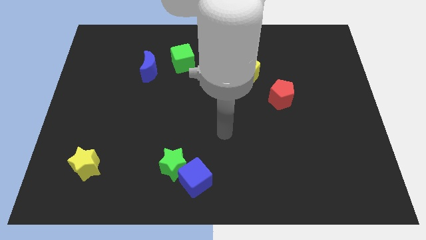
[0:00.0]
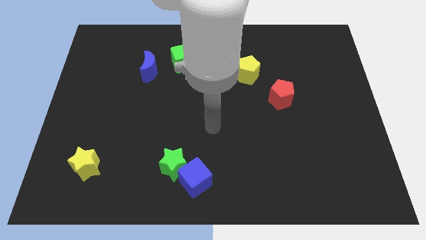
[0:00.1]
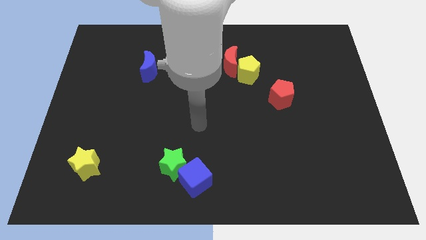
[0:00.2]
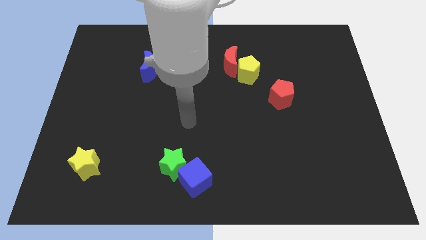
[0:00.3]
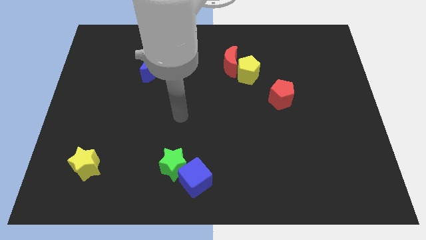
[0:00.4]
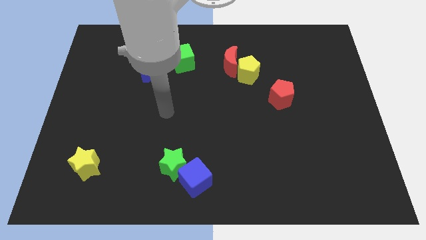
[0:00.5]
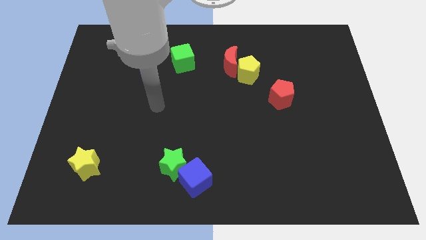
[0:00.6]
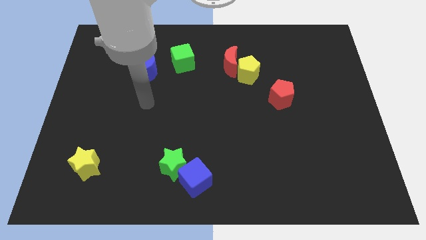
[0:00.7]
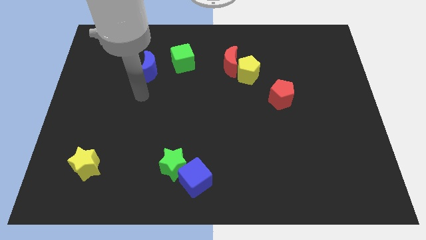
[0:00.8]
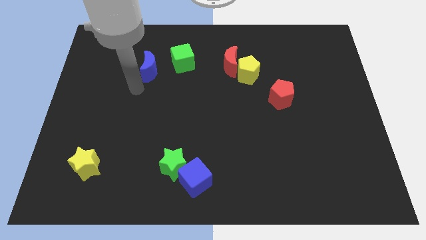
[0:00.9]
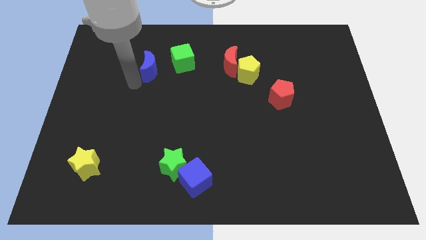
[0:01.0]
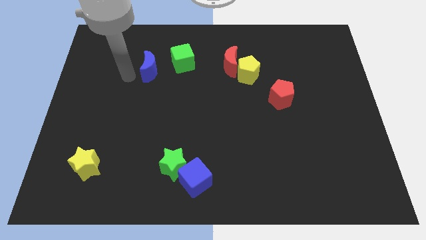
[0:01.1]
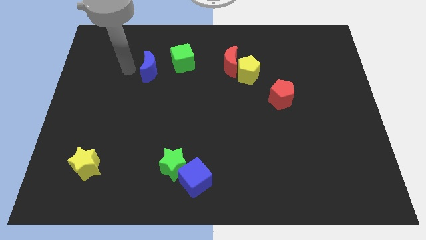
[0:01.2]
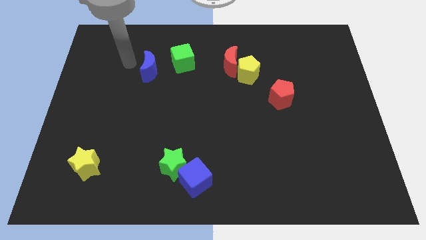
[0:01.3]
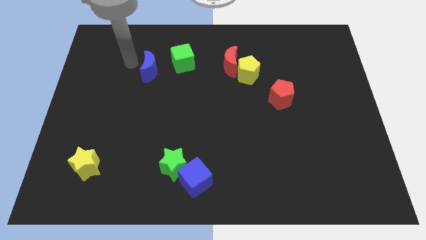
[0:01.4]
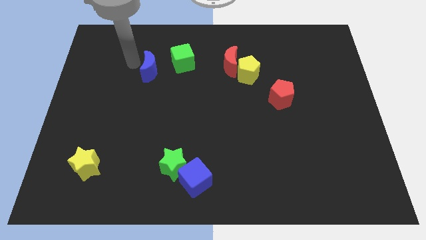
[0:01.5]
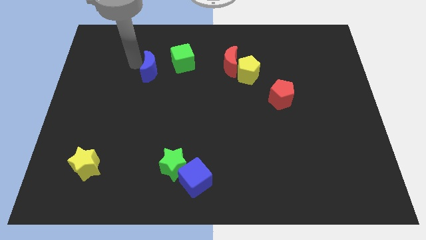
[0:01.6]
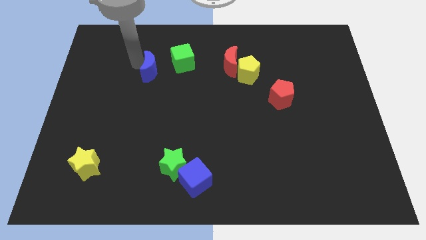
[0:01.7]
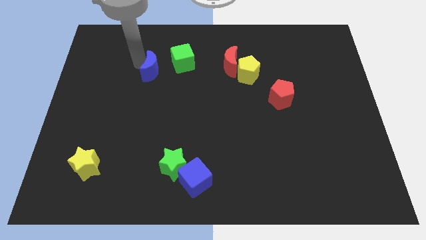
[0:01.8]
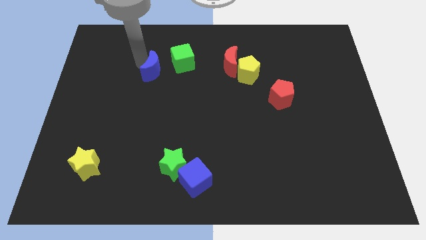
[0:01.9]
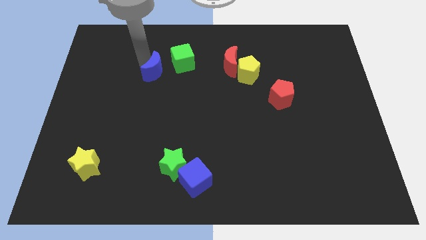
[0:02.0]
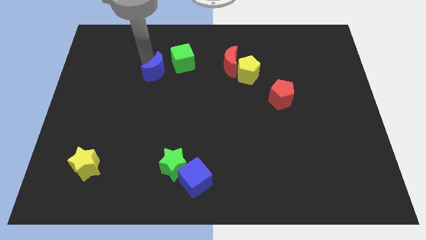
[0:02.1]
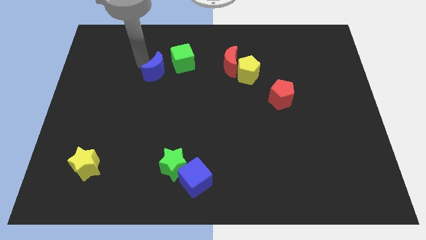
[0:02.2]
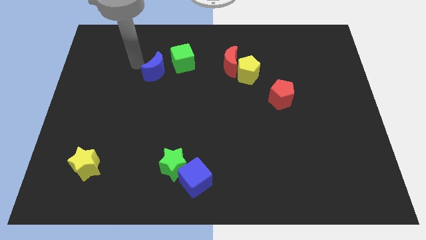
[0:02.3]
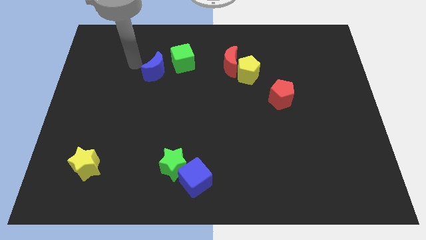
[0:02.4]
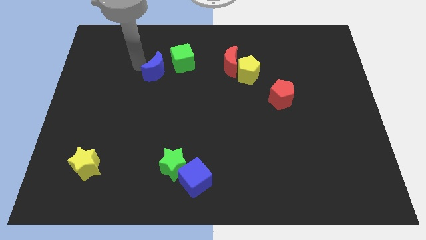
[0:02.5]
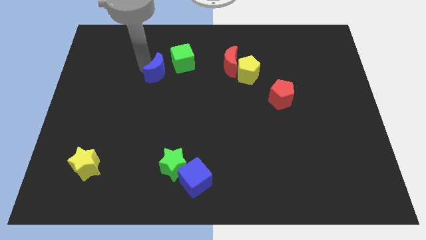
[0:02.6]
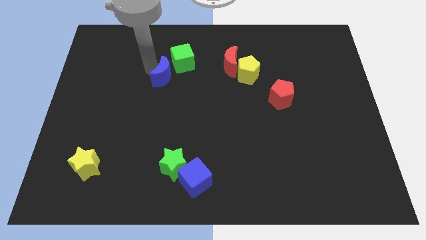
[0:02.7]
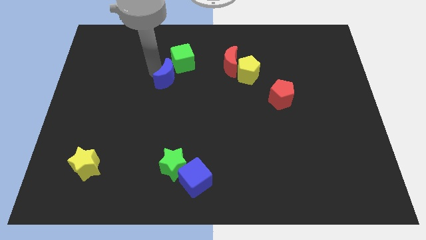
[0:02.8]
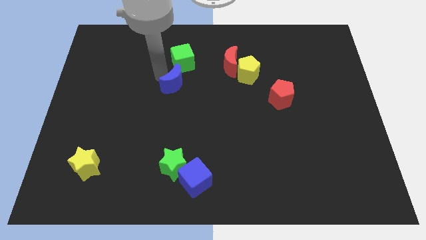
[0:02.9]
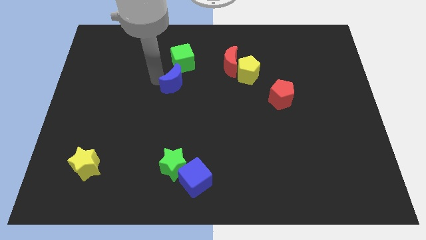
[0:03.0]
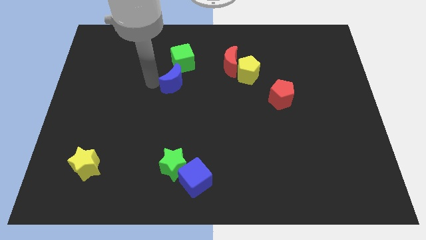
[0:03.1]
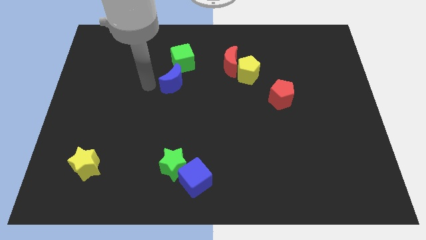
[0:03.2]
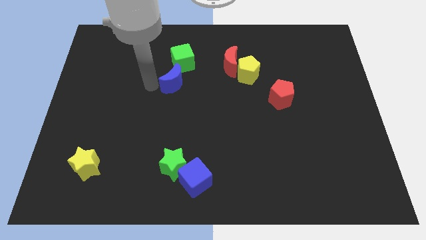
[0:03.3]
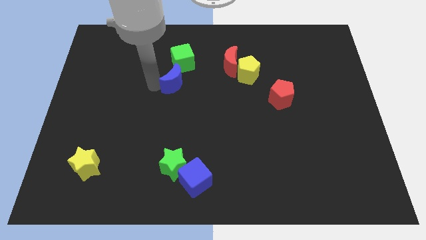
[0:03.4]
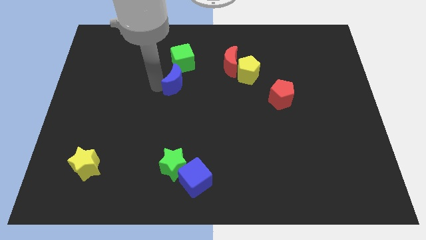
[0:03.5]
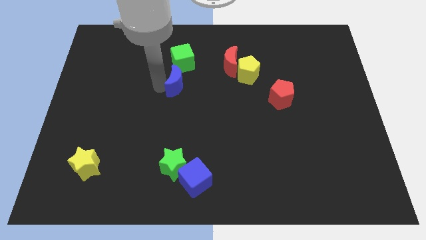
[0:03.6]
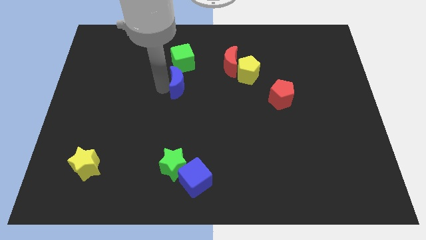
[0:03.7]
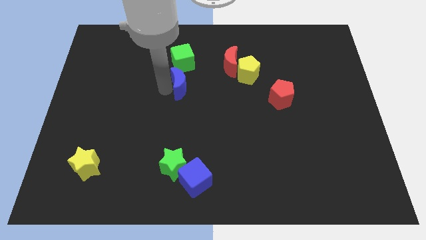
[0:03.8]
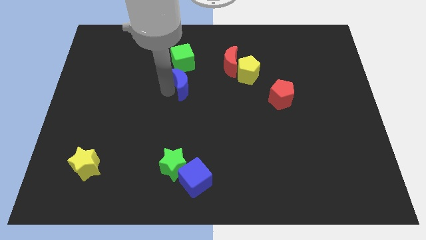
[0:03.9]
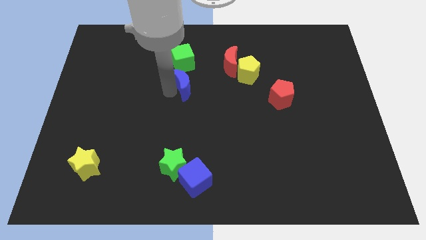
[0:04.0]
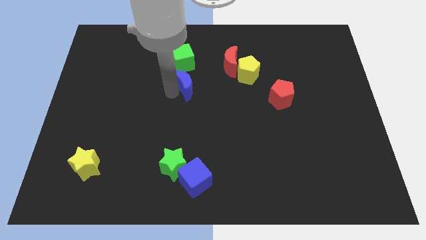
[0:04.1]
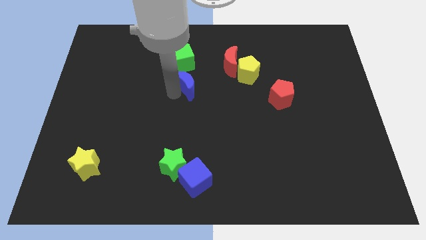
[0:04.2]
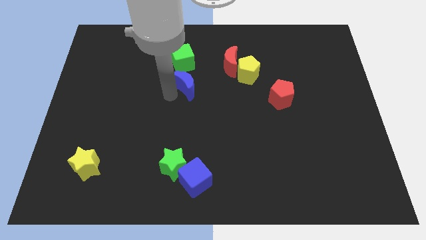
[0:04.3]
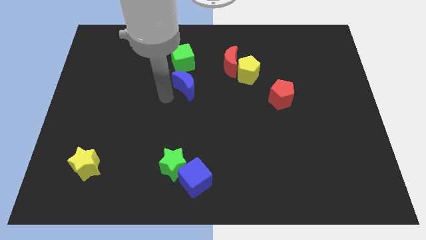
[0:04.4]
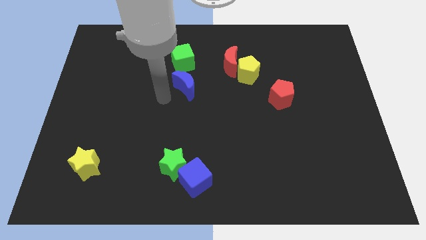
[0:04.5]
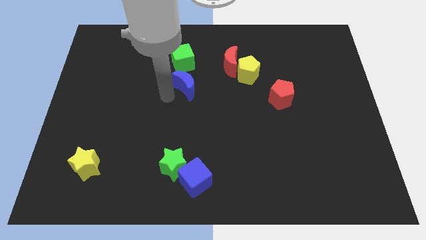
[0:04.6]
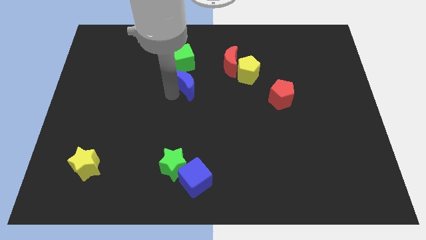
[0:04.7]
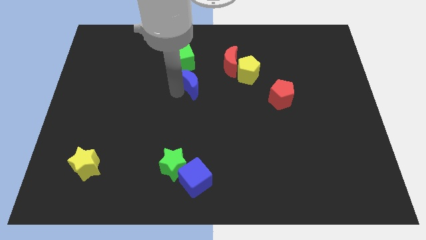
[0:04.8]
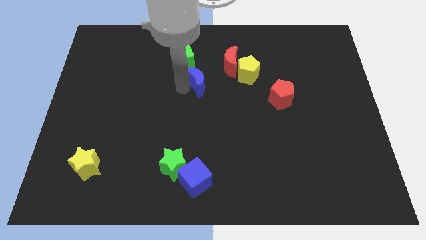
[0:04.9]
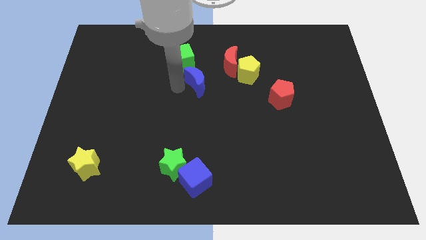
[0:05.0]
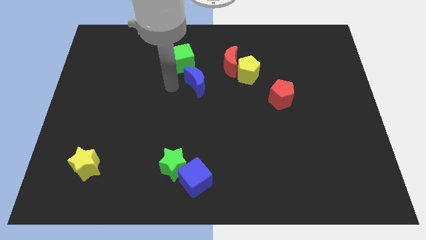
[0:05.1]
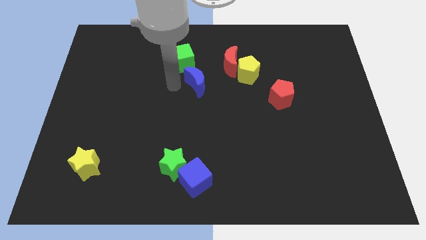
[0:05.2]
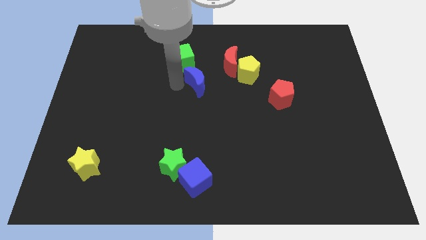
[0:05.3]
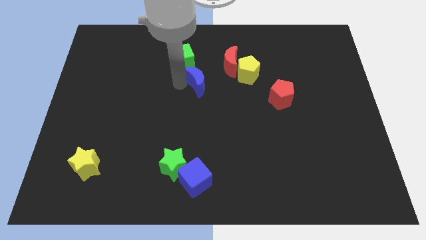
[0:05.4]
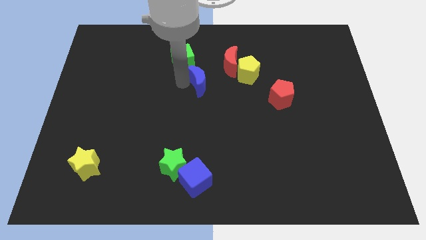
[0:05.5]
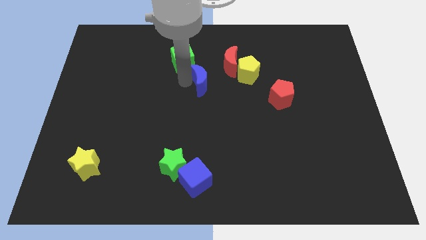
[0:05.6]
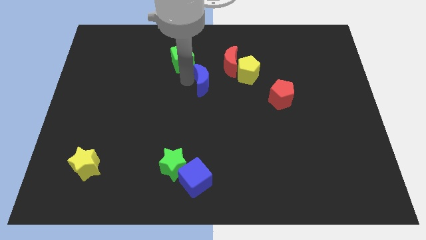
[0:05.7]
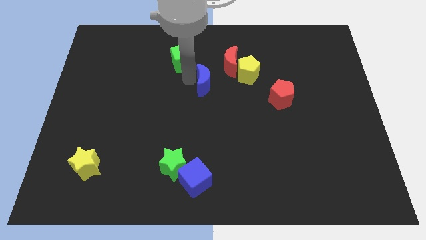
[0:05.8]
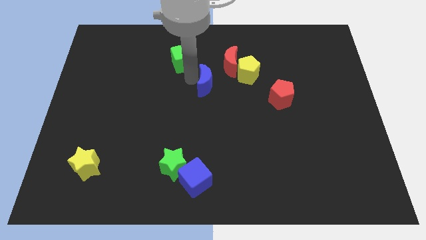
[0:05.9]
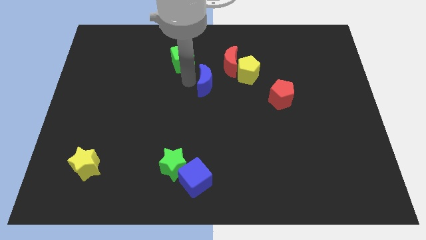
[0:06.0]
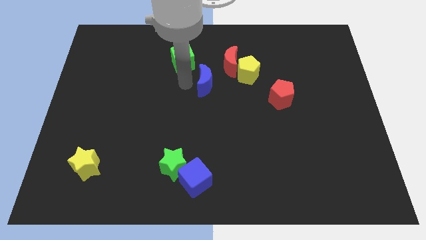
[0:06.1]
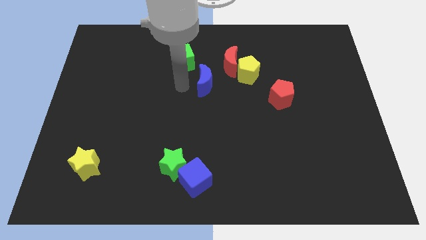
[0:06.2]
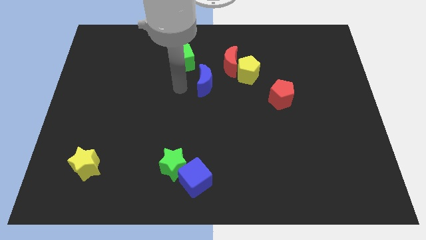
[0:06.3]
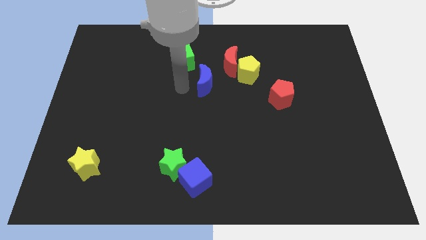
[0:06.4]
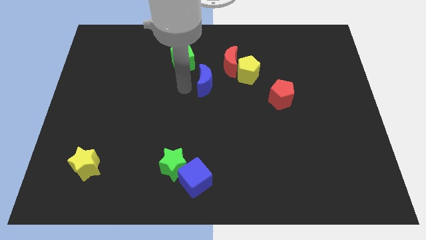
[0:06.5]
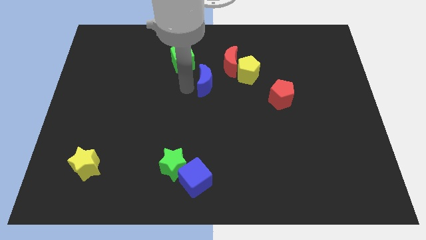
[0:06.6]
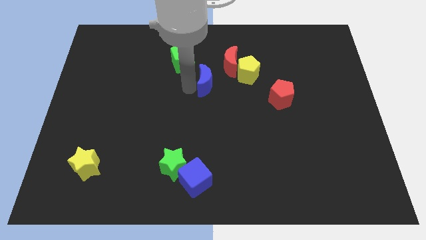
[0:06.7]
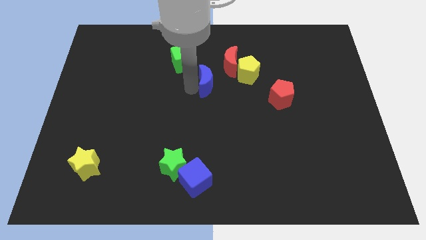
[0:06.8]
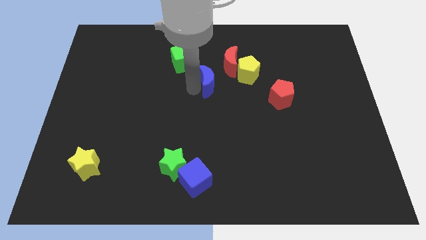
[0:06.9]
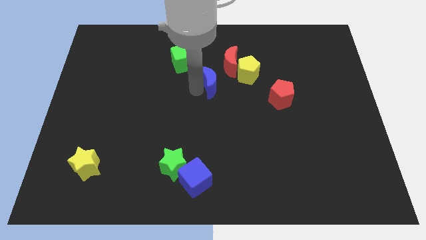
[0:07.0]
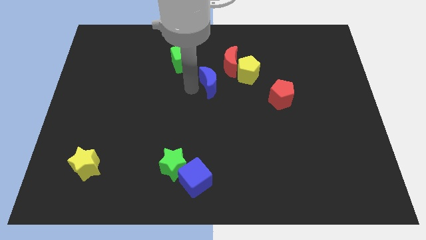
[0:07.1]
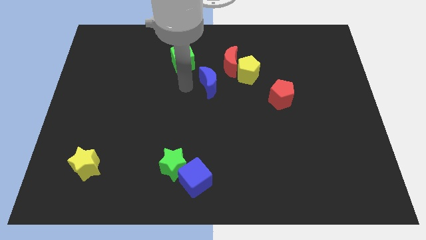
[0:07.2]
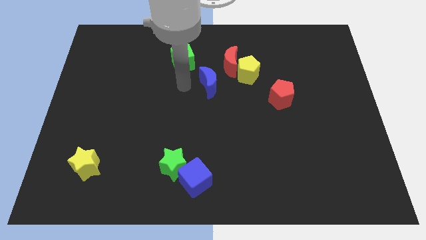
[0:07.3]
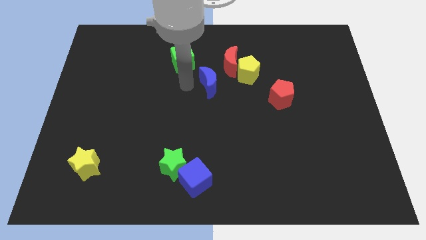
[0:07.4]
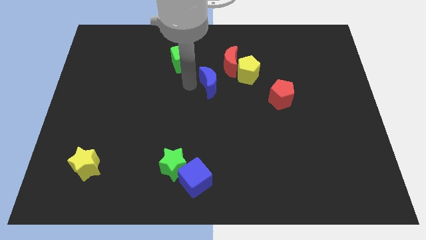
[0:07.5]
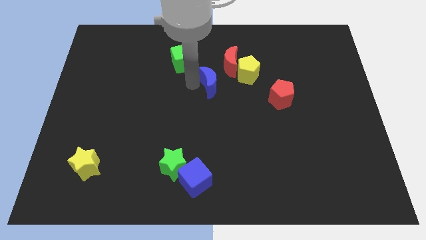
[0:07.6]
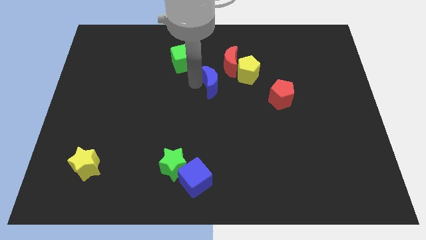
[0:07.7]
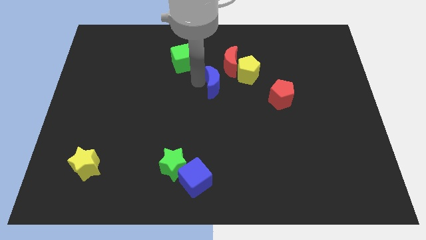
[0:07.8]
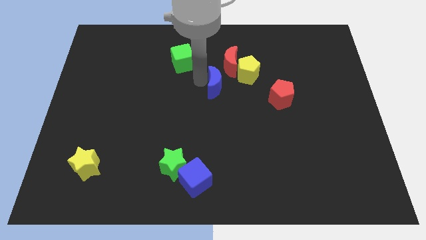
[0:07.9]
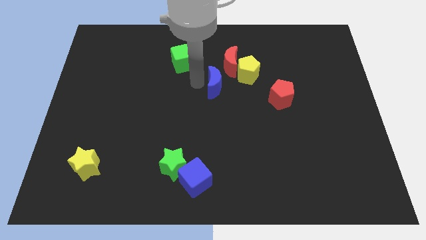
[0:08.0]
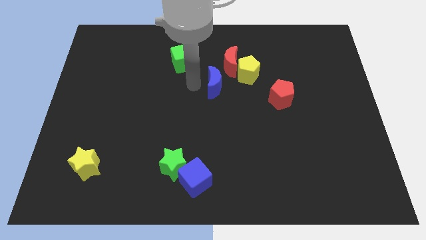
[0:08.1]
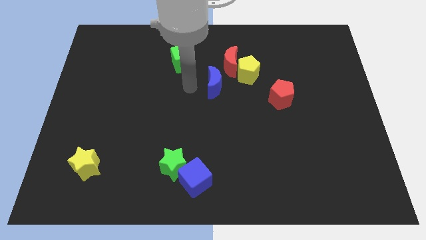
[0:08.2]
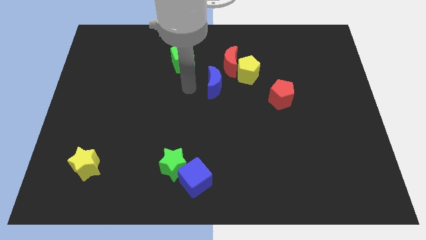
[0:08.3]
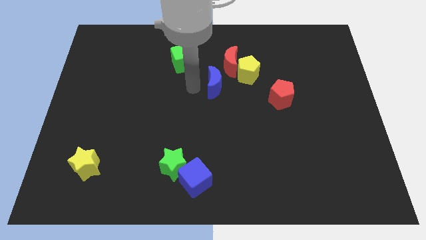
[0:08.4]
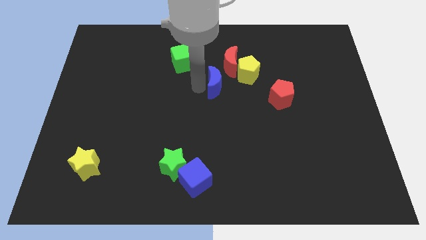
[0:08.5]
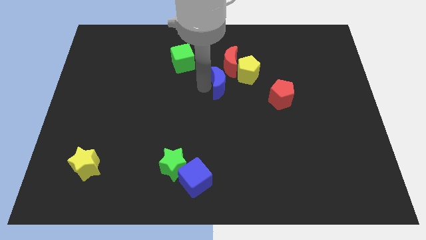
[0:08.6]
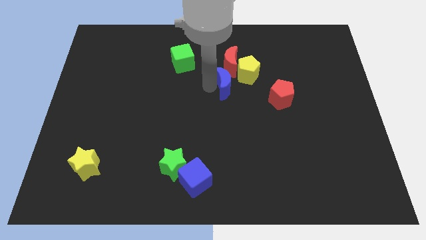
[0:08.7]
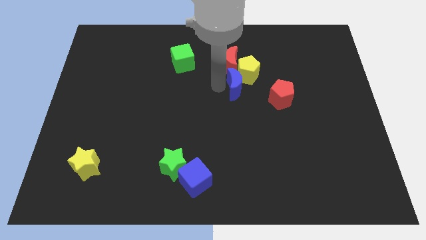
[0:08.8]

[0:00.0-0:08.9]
move the blue moon right
